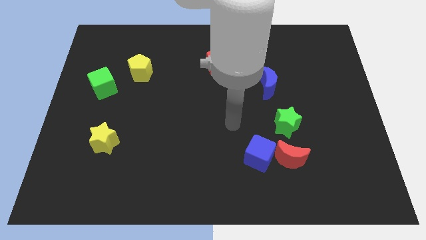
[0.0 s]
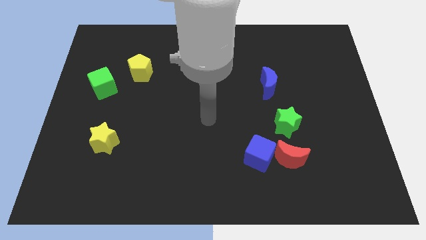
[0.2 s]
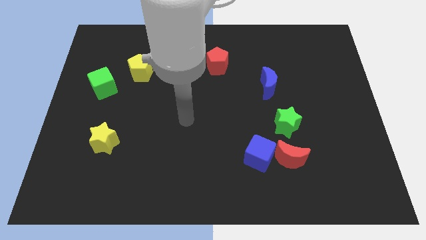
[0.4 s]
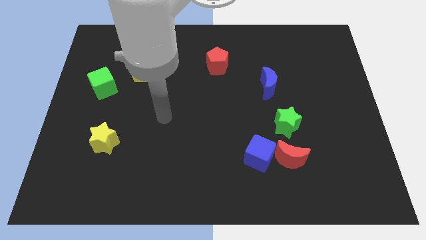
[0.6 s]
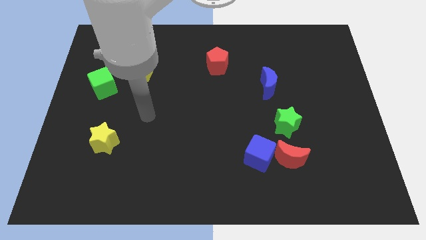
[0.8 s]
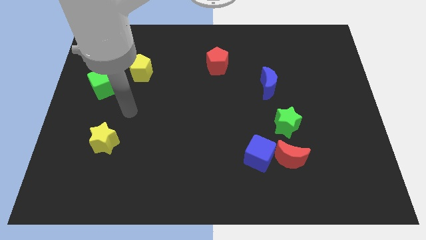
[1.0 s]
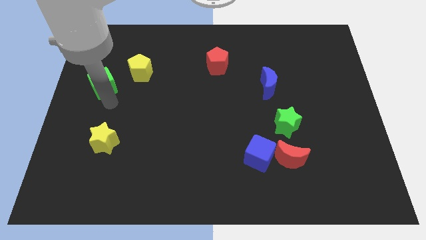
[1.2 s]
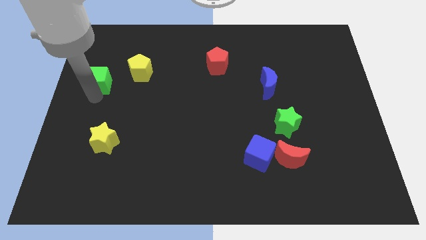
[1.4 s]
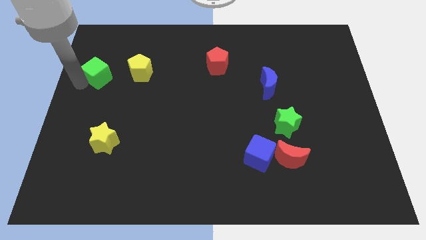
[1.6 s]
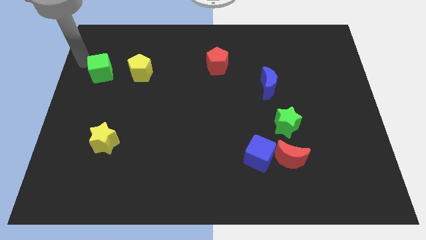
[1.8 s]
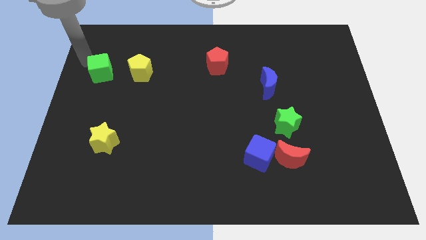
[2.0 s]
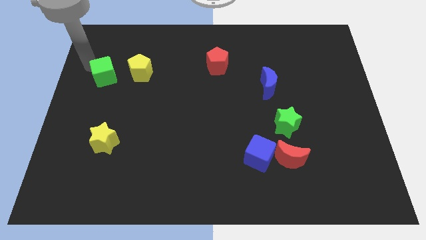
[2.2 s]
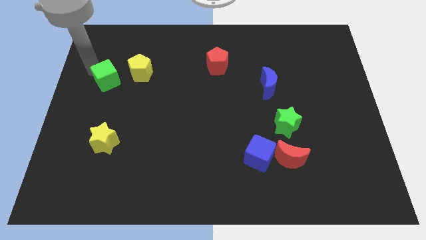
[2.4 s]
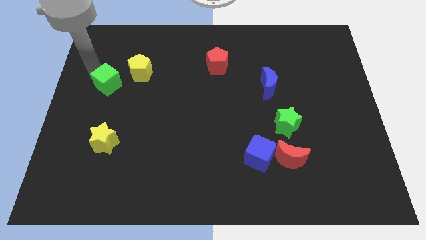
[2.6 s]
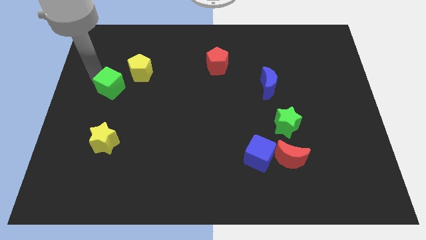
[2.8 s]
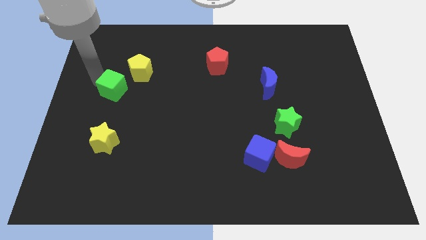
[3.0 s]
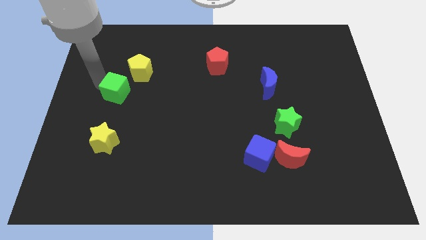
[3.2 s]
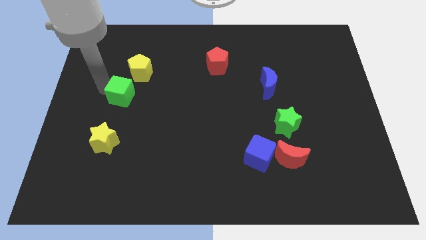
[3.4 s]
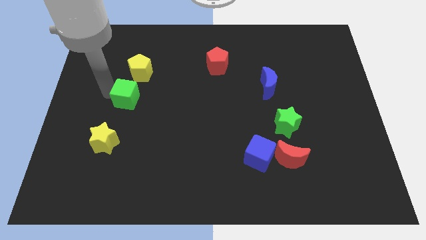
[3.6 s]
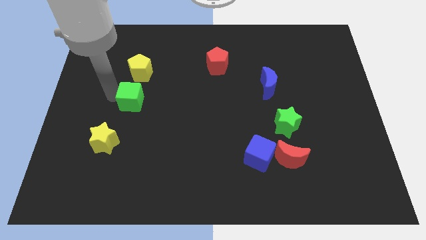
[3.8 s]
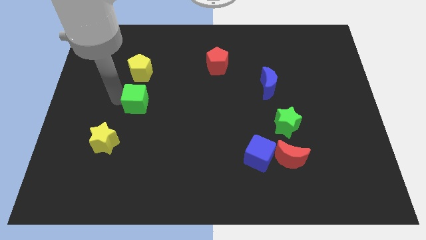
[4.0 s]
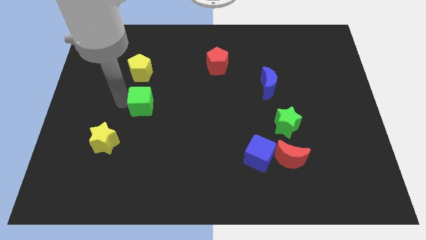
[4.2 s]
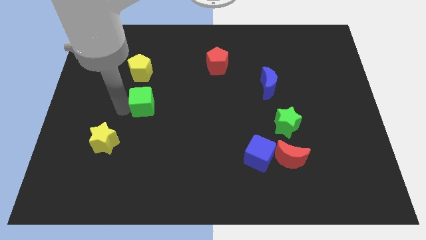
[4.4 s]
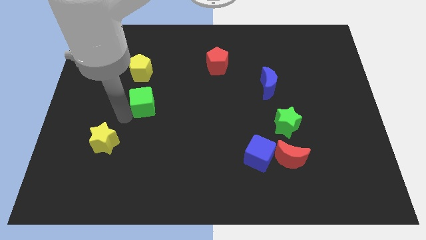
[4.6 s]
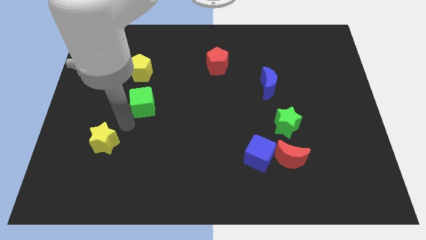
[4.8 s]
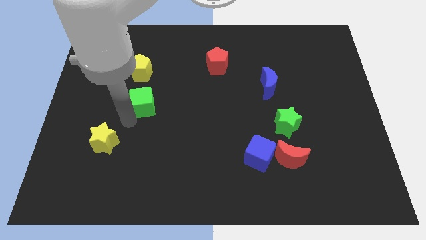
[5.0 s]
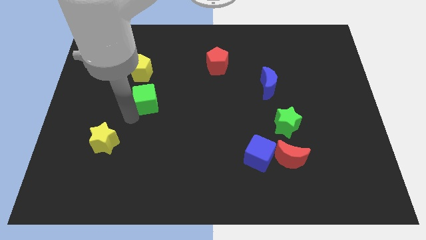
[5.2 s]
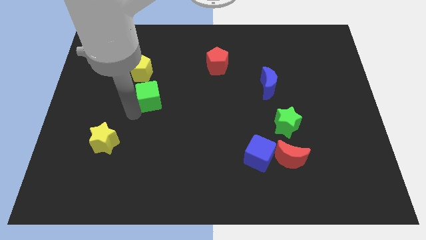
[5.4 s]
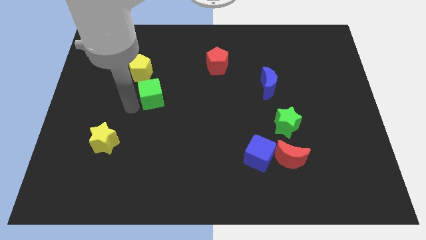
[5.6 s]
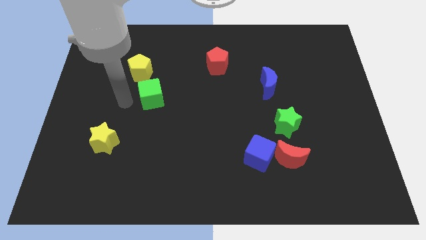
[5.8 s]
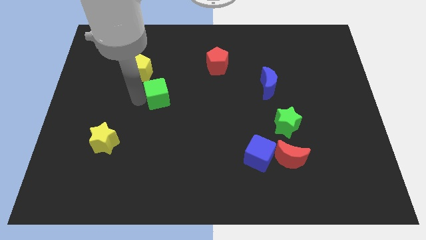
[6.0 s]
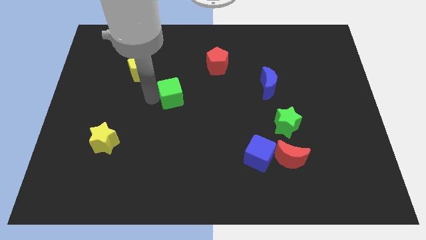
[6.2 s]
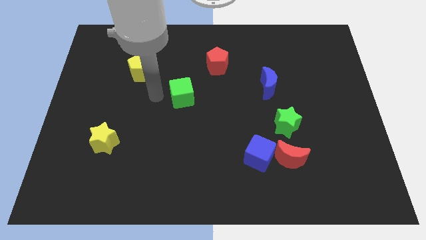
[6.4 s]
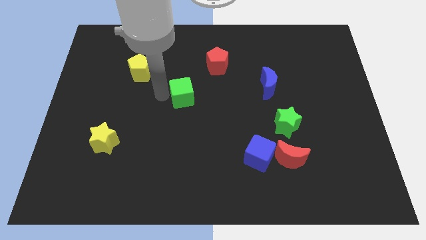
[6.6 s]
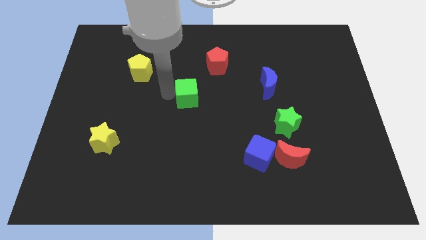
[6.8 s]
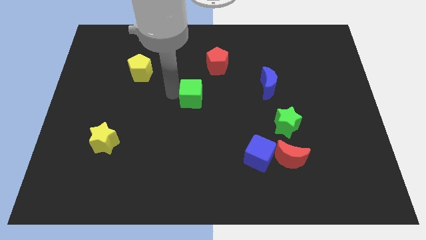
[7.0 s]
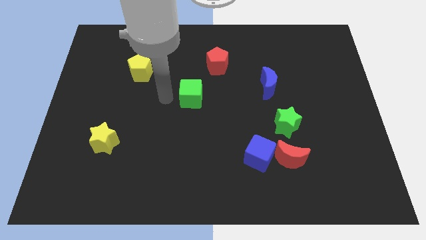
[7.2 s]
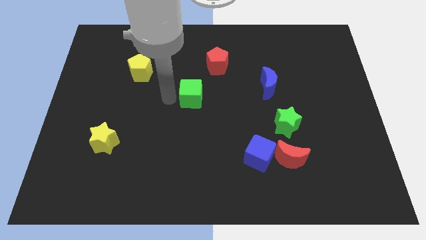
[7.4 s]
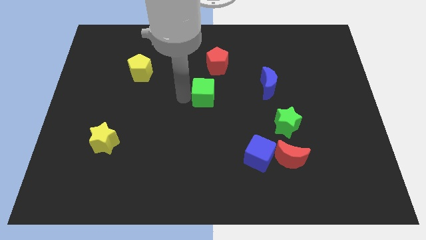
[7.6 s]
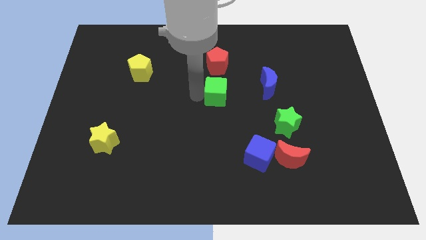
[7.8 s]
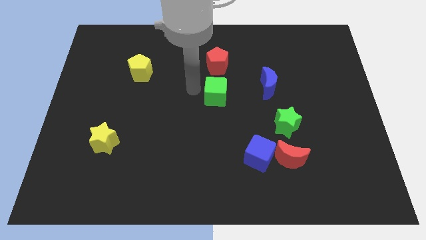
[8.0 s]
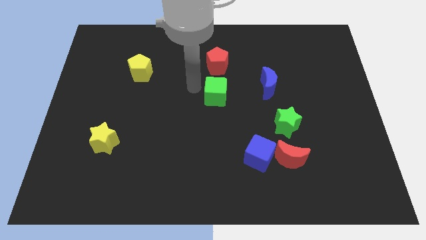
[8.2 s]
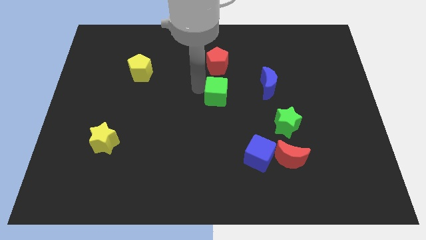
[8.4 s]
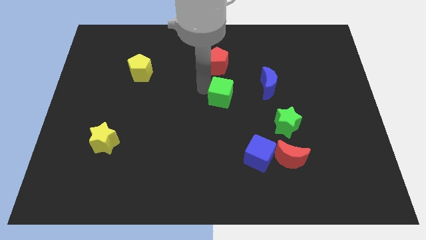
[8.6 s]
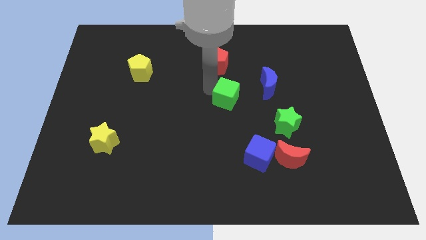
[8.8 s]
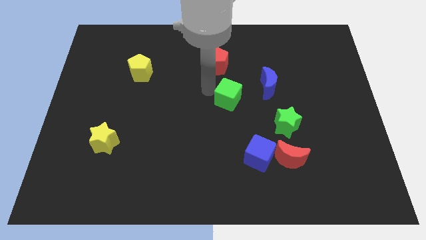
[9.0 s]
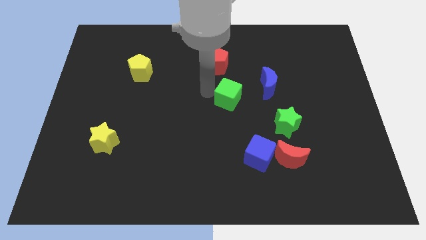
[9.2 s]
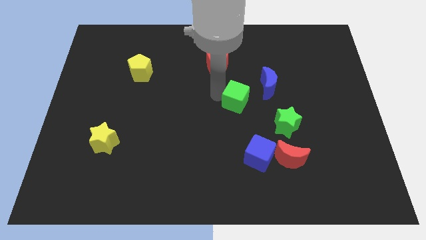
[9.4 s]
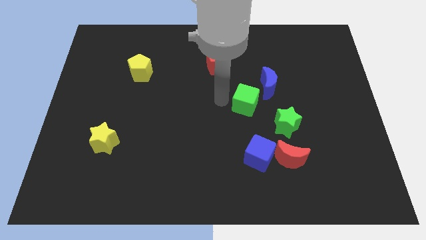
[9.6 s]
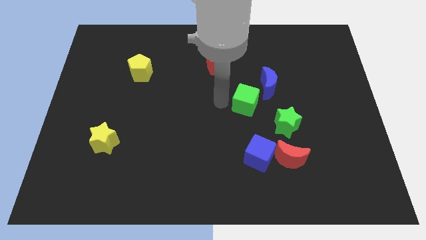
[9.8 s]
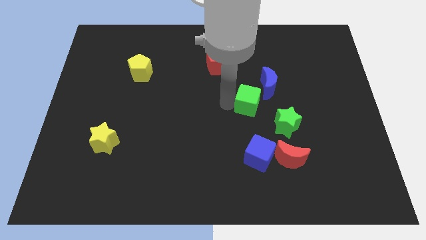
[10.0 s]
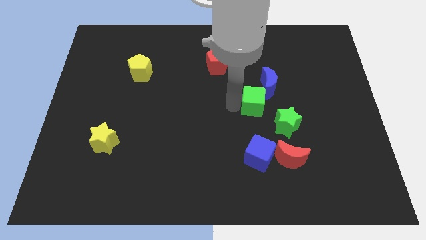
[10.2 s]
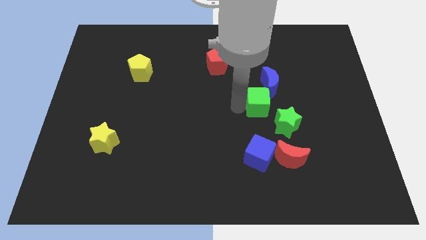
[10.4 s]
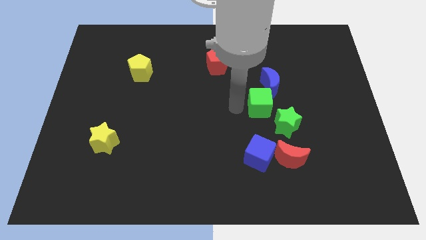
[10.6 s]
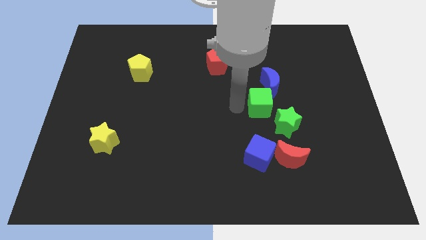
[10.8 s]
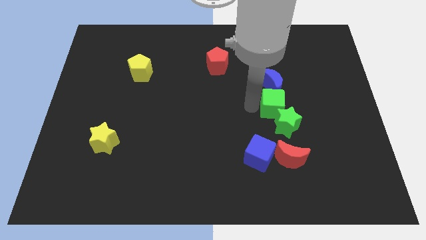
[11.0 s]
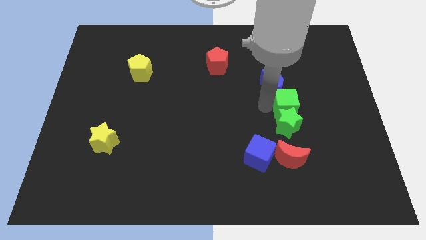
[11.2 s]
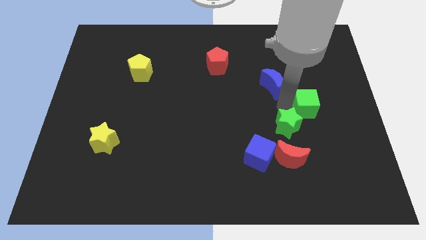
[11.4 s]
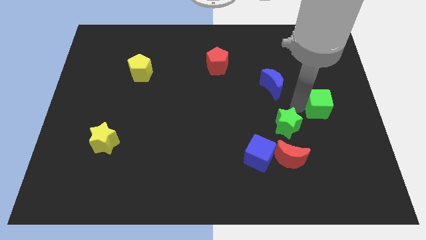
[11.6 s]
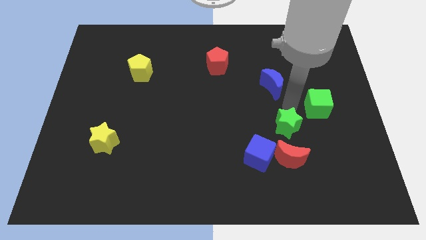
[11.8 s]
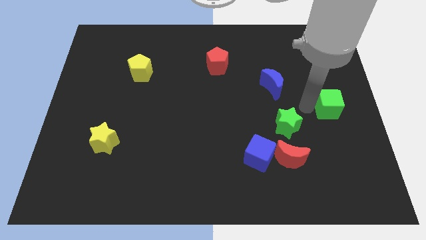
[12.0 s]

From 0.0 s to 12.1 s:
slide the green cube to the center right

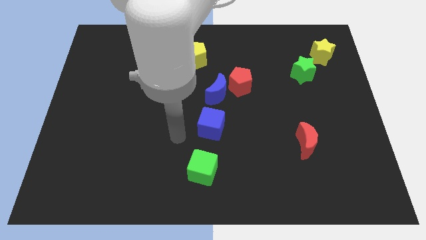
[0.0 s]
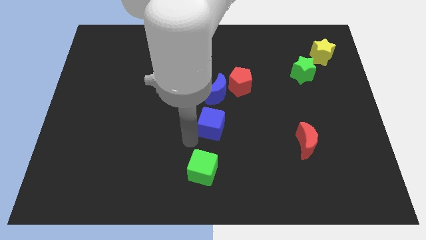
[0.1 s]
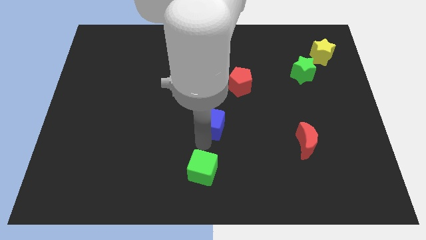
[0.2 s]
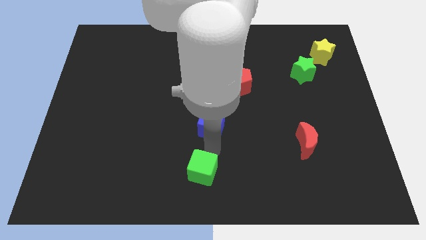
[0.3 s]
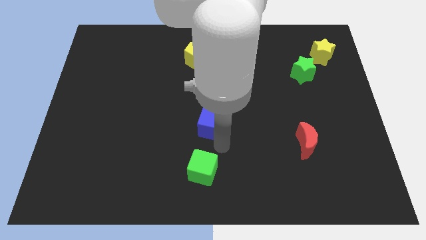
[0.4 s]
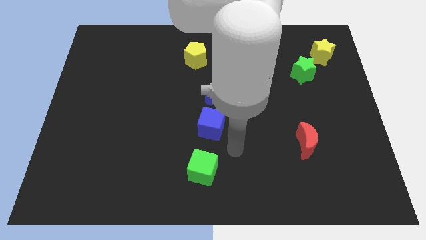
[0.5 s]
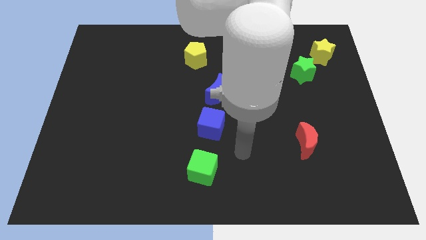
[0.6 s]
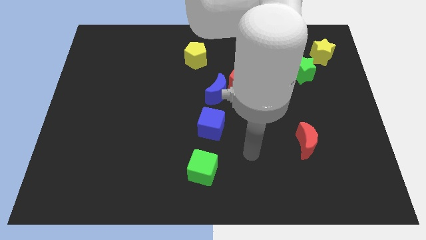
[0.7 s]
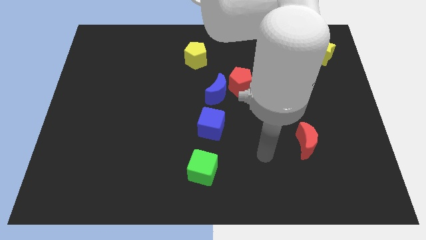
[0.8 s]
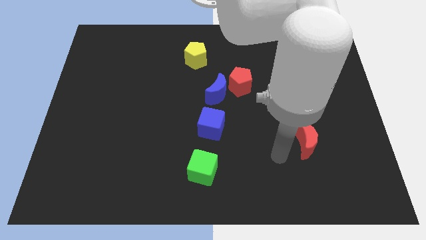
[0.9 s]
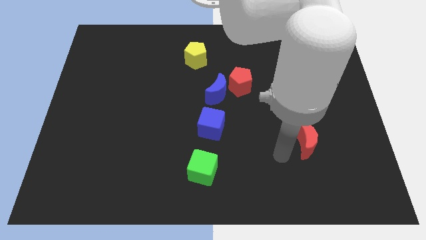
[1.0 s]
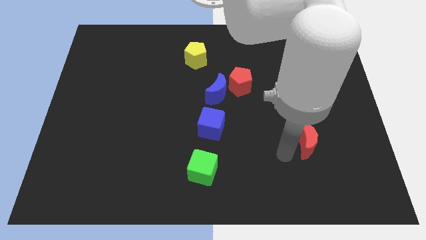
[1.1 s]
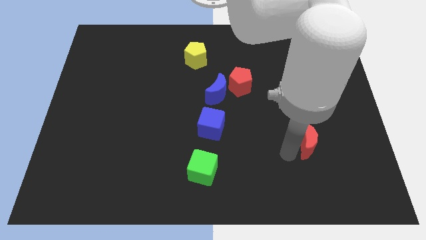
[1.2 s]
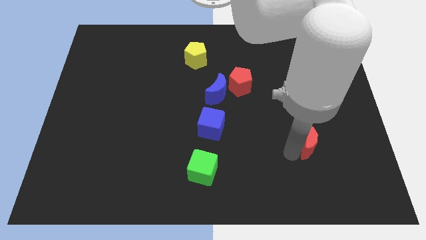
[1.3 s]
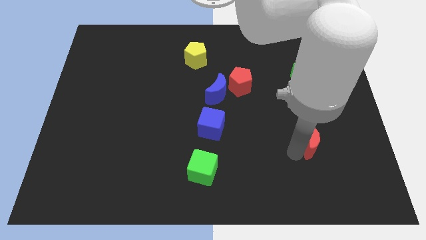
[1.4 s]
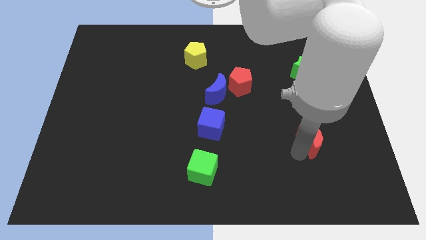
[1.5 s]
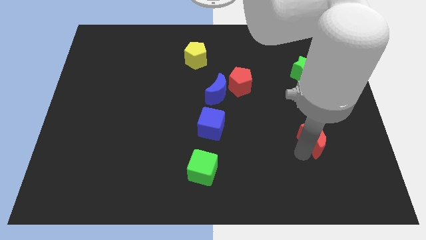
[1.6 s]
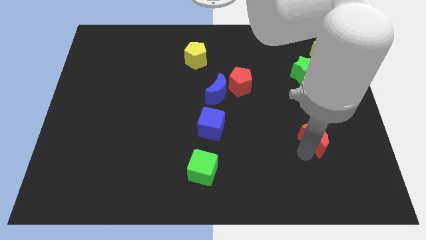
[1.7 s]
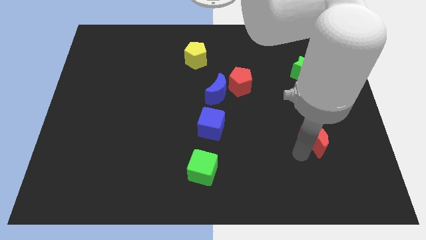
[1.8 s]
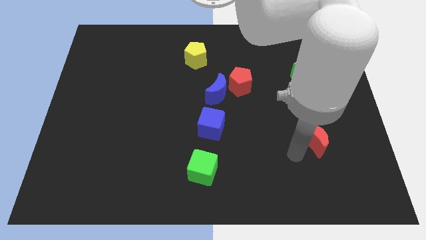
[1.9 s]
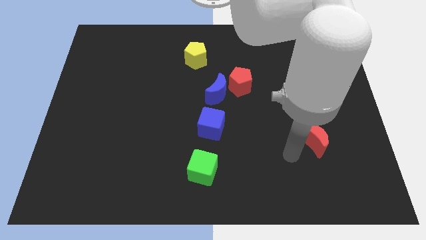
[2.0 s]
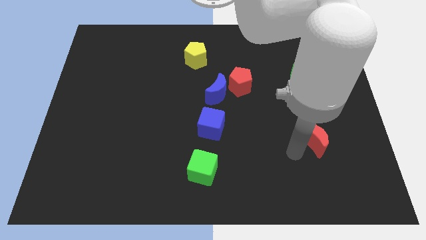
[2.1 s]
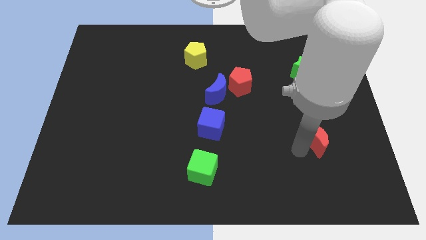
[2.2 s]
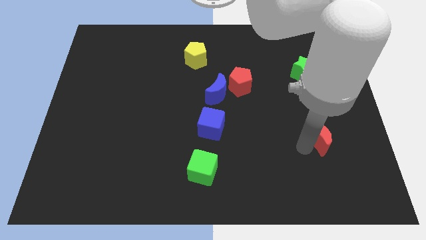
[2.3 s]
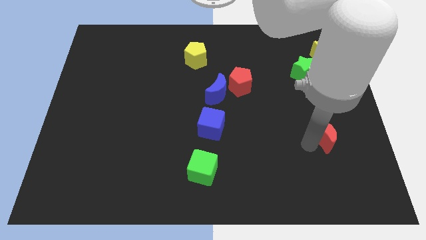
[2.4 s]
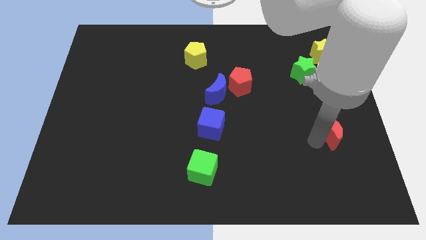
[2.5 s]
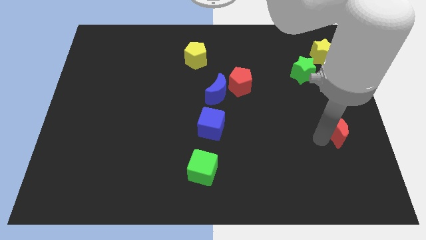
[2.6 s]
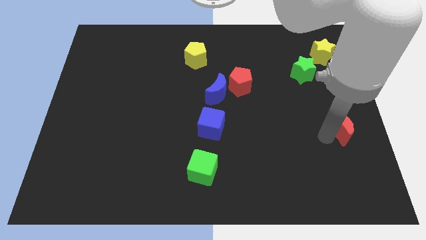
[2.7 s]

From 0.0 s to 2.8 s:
put the red moon to the right side of the board
